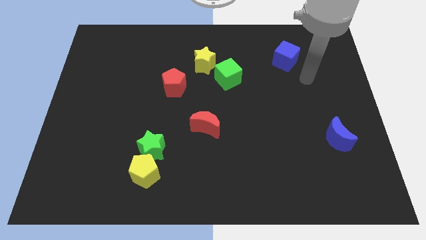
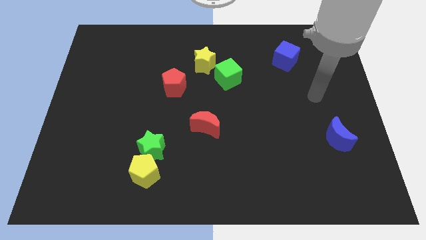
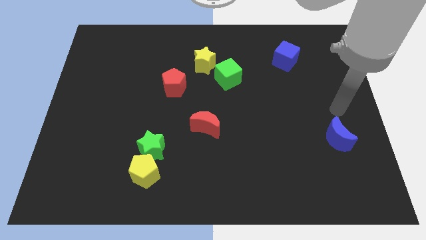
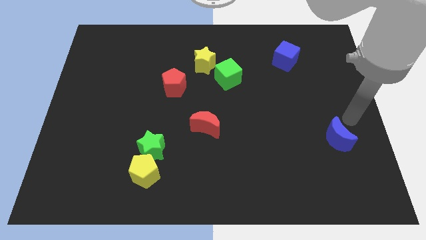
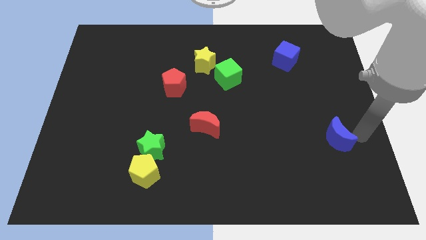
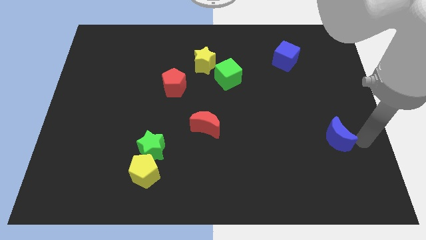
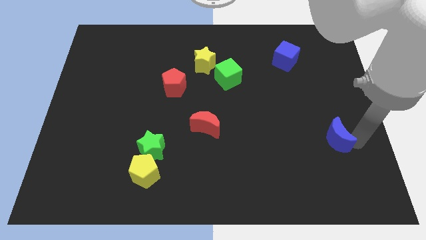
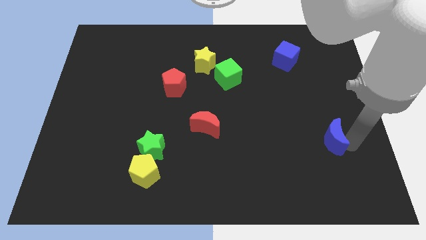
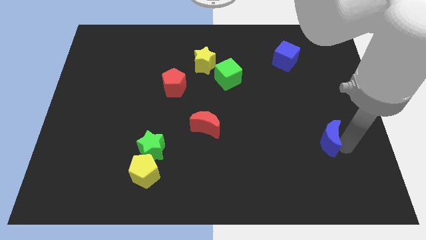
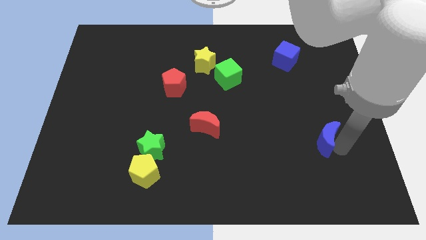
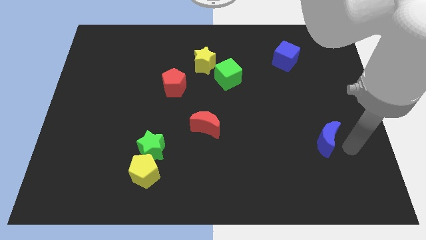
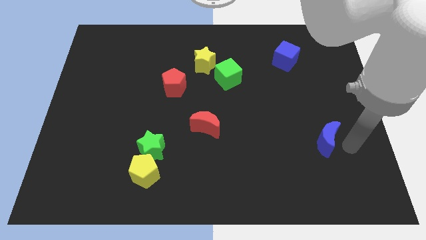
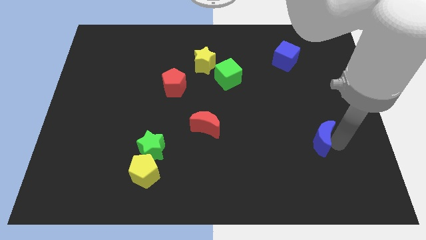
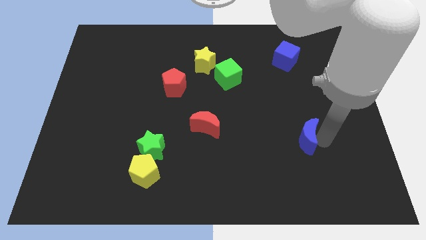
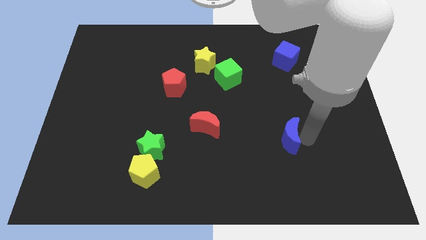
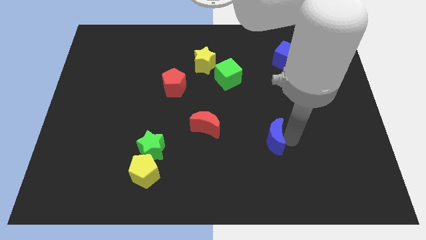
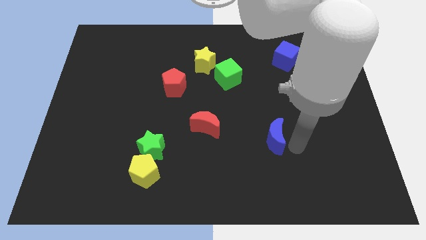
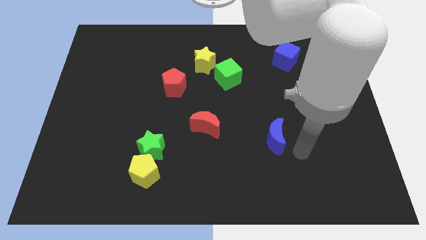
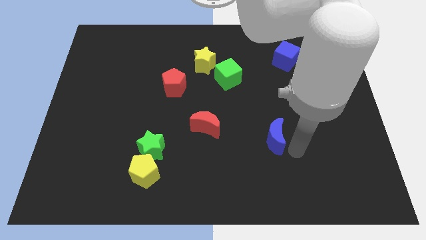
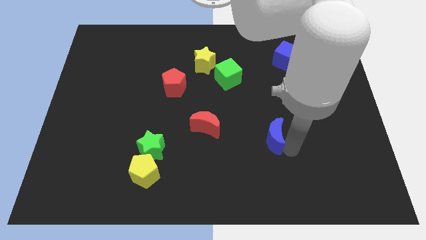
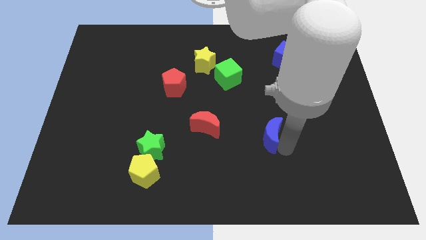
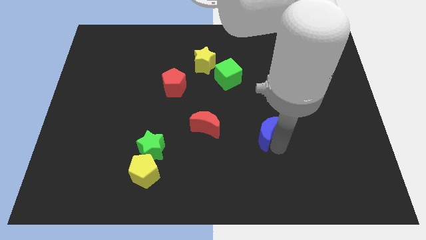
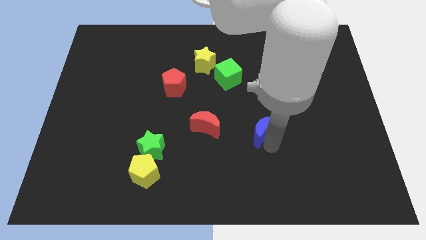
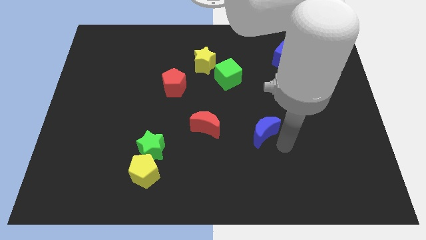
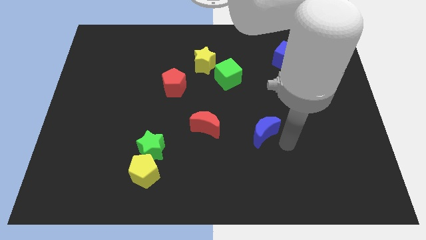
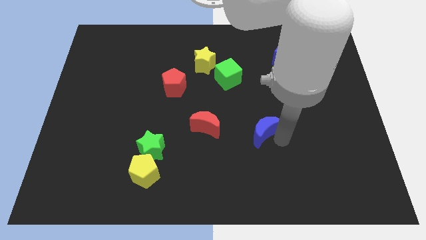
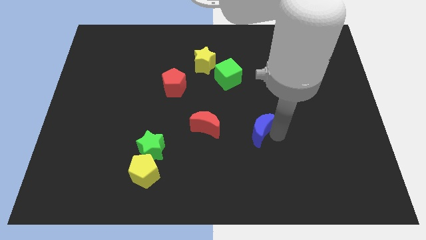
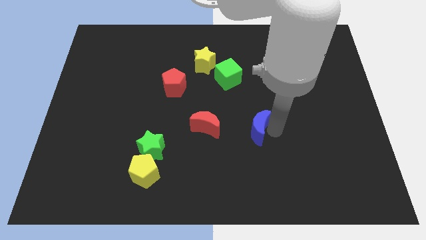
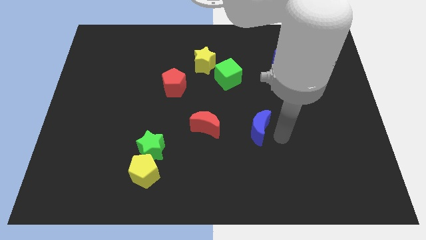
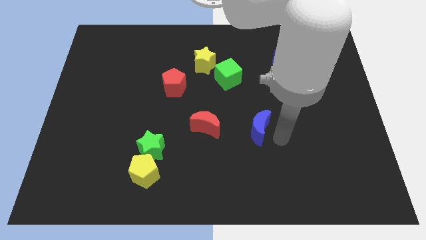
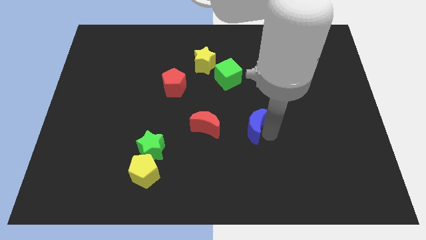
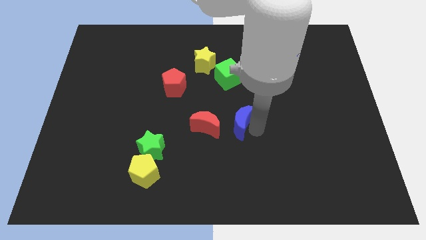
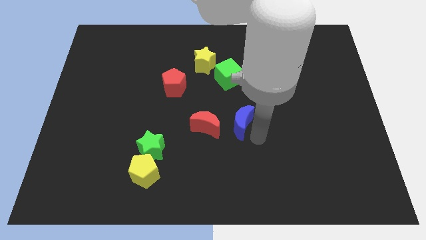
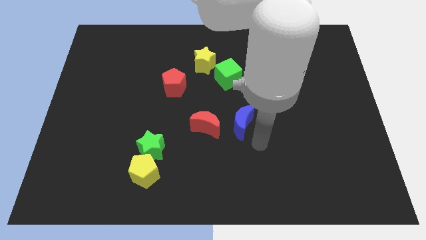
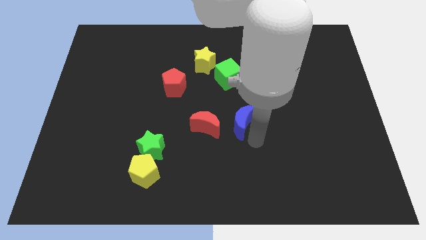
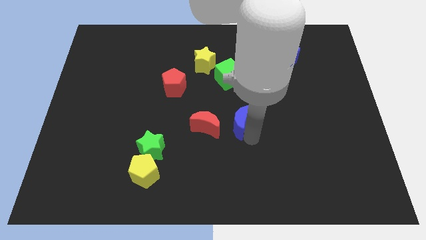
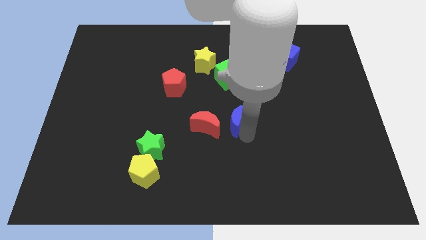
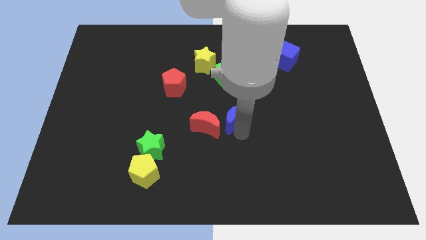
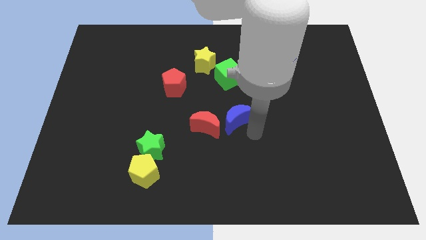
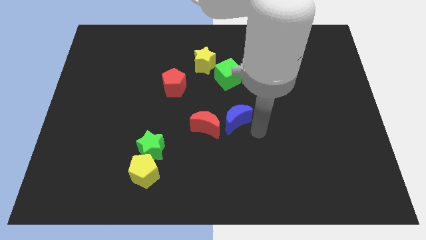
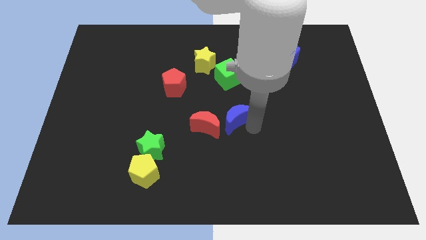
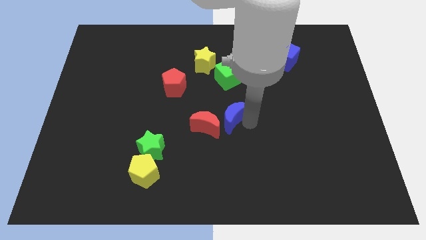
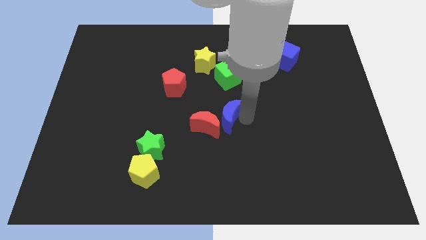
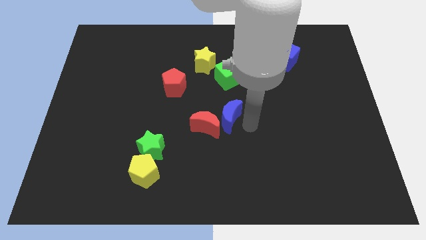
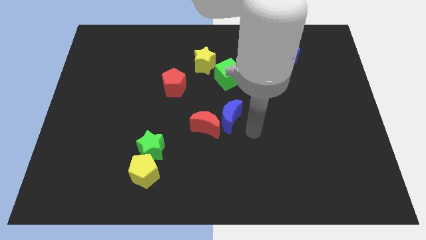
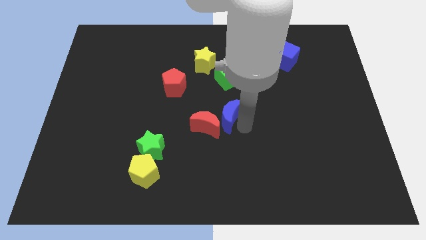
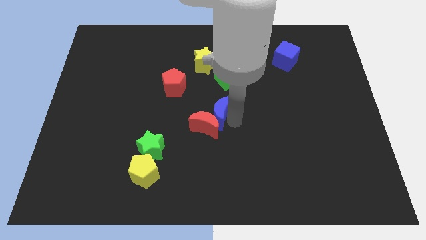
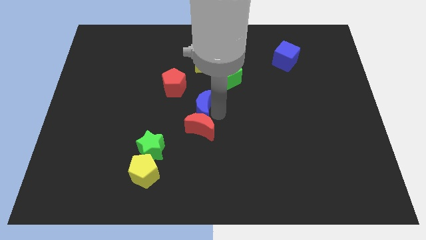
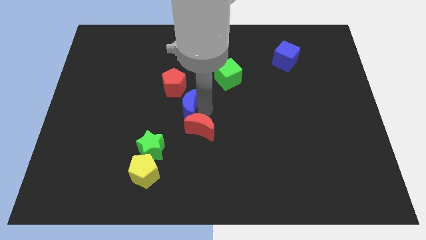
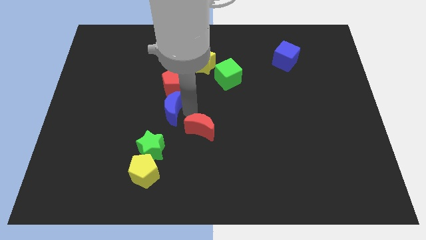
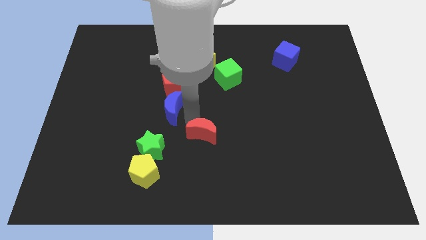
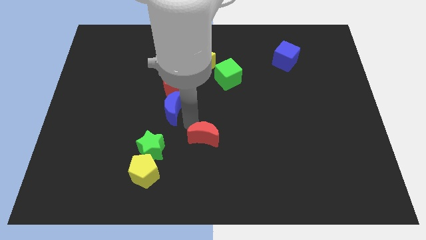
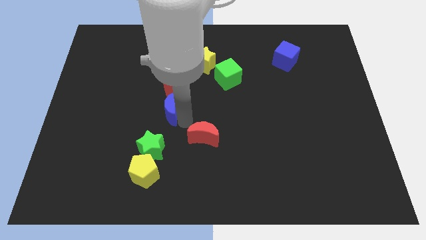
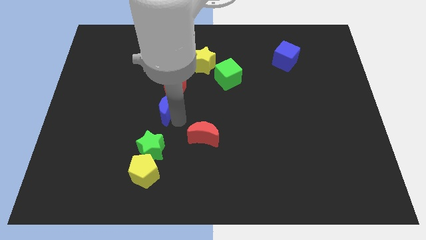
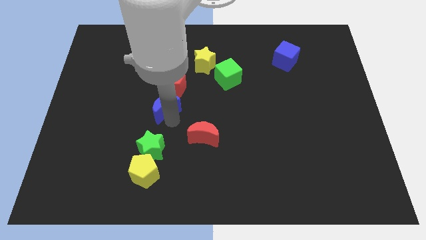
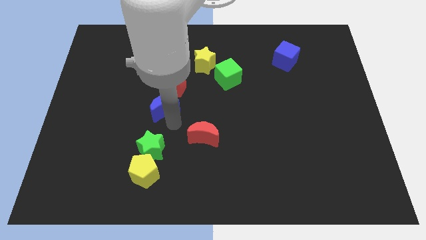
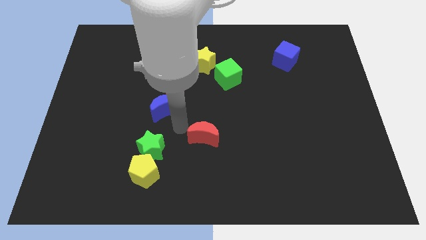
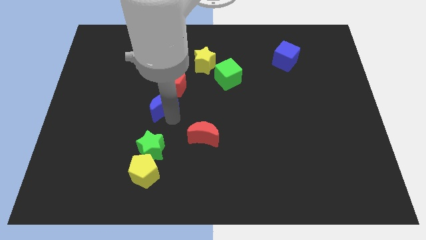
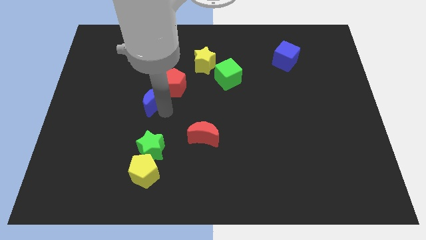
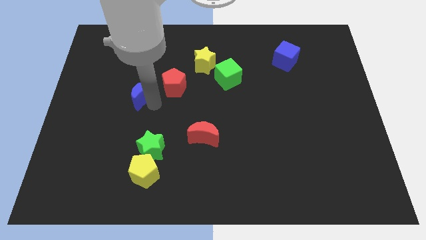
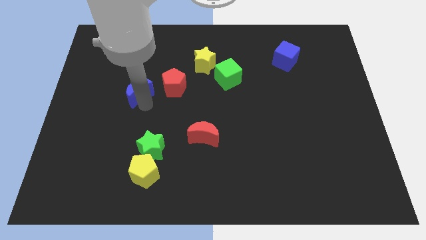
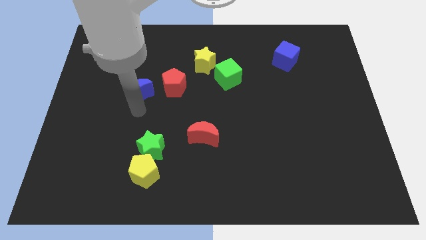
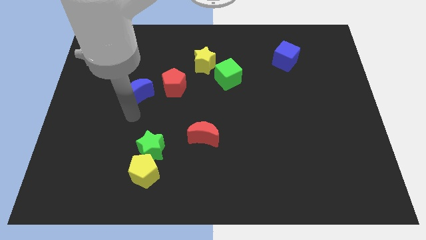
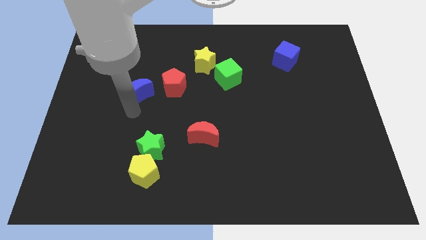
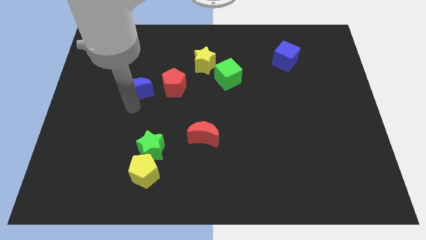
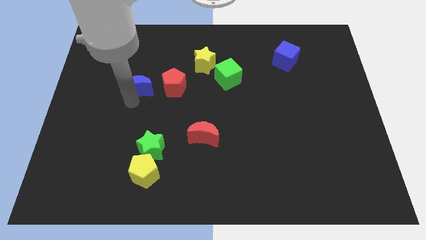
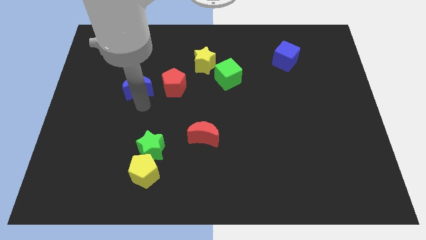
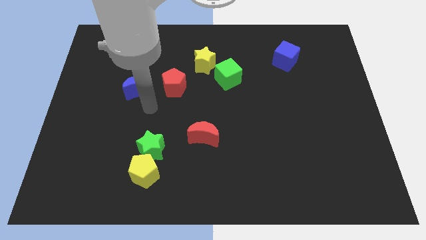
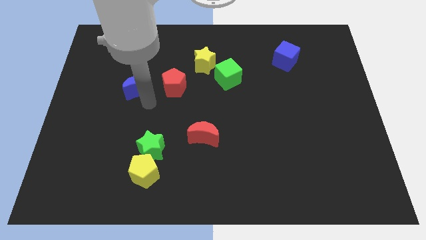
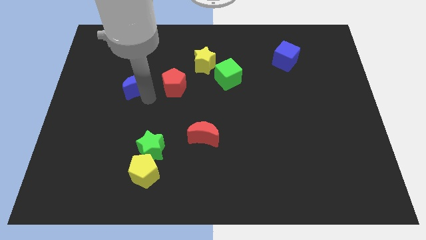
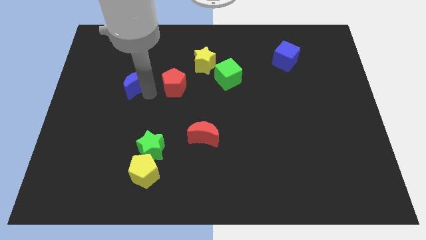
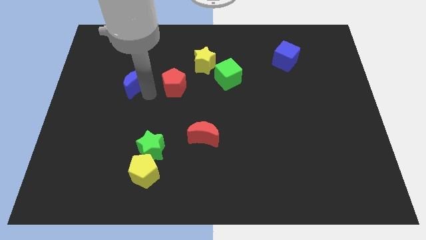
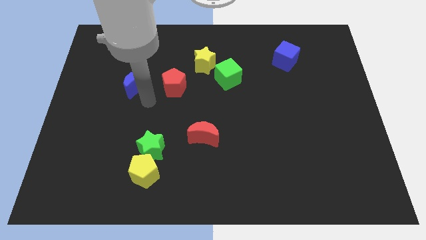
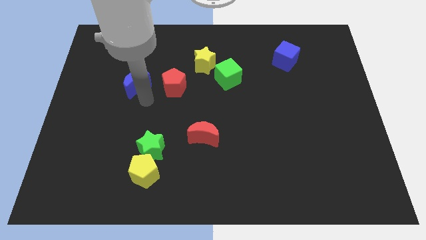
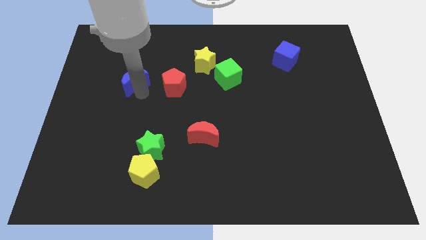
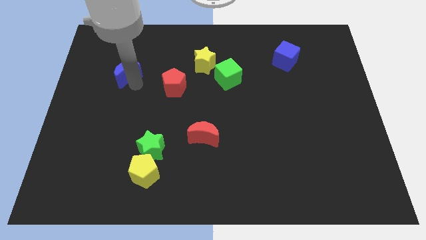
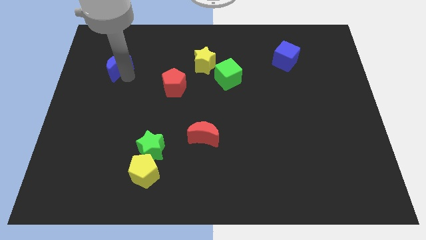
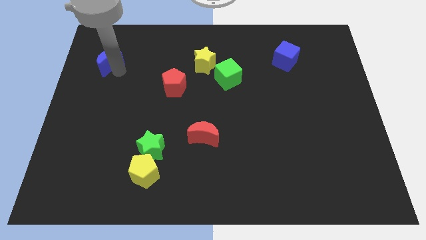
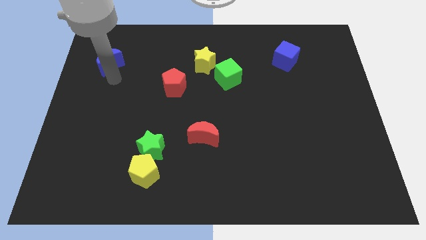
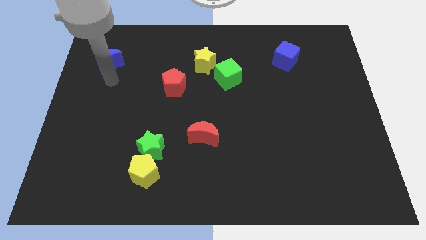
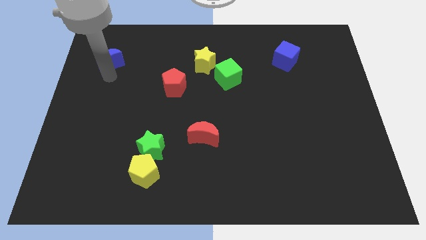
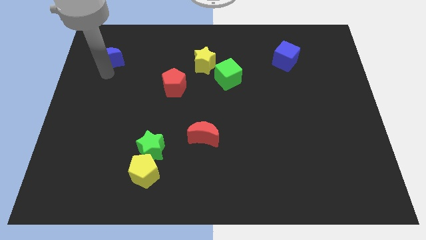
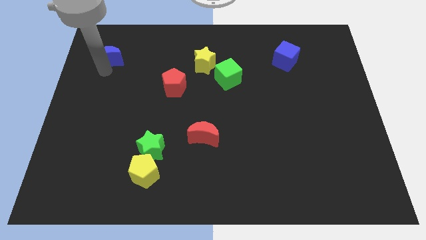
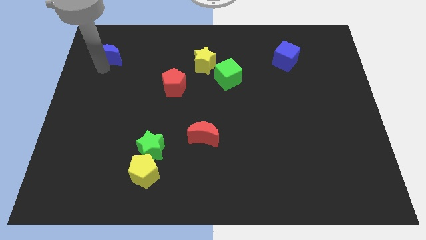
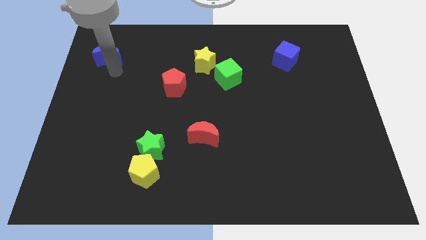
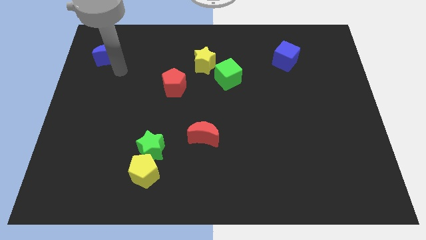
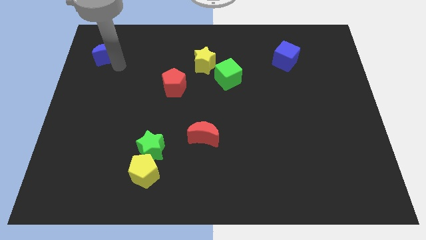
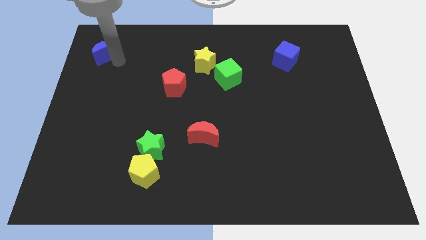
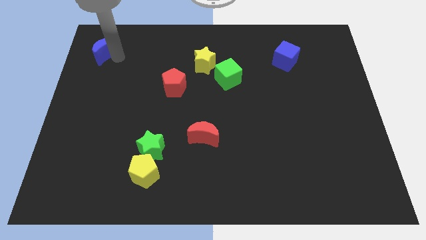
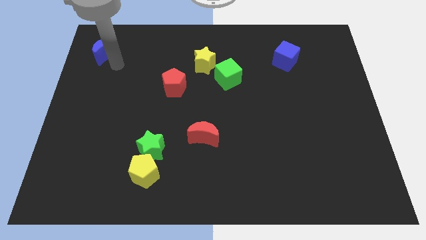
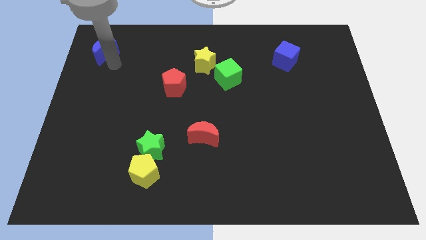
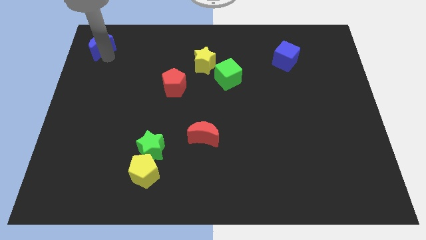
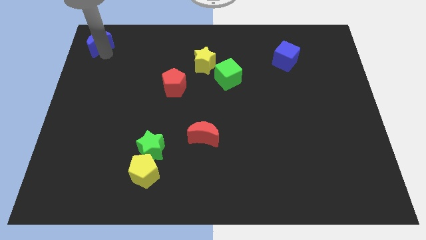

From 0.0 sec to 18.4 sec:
move the blue moon to the top left of the board
